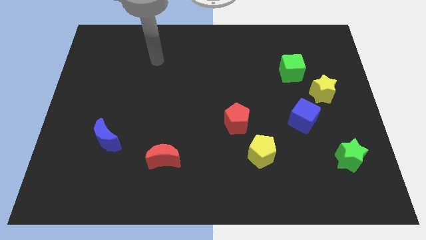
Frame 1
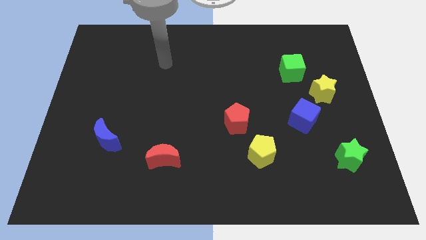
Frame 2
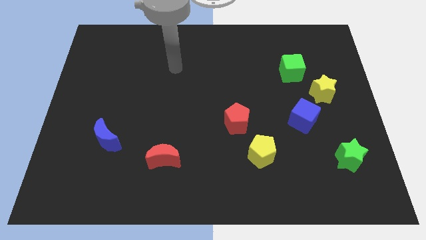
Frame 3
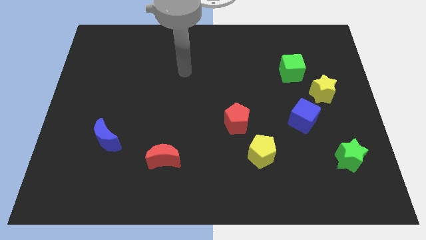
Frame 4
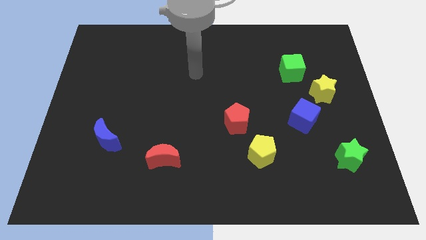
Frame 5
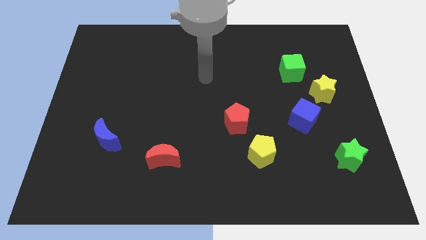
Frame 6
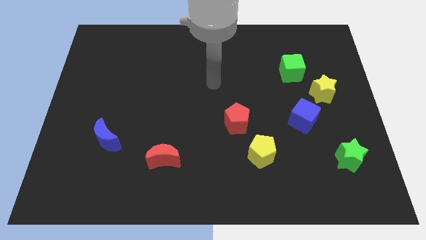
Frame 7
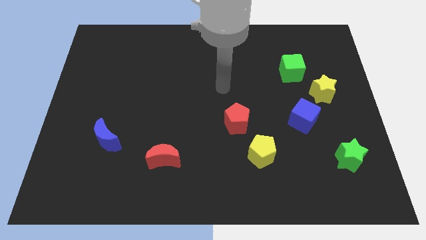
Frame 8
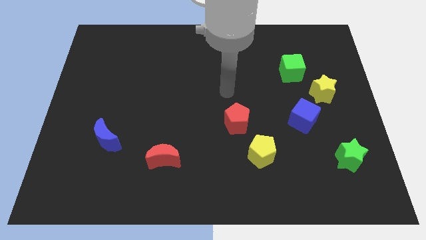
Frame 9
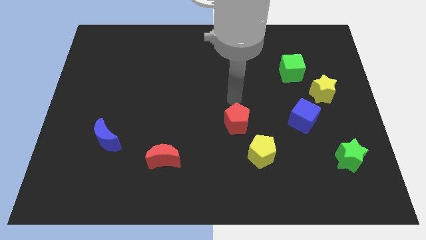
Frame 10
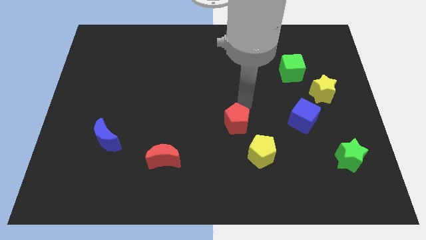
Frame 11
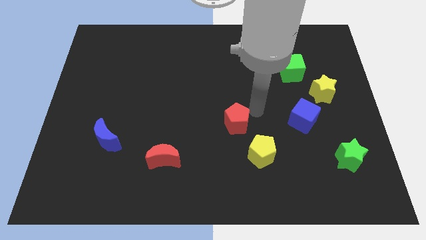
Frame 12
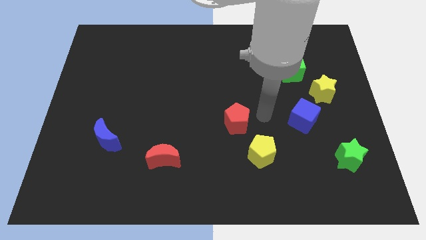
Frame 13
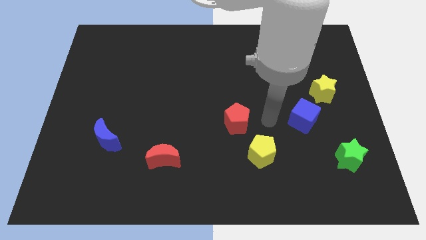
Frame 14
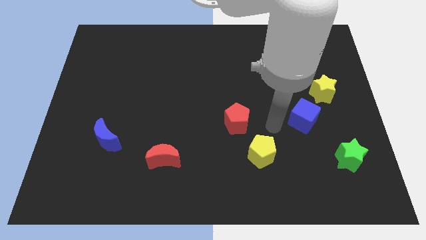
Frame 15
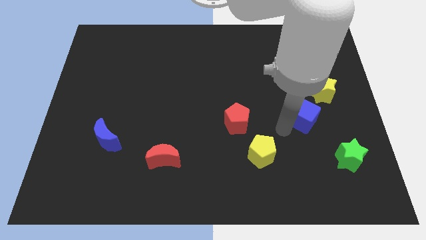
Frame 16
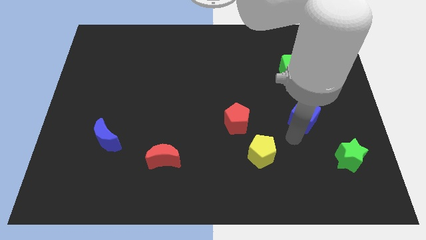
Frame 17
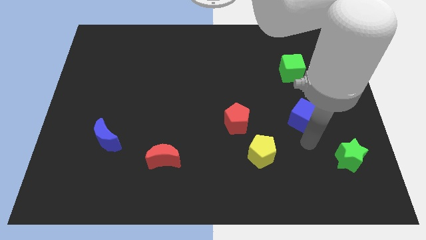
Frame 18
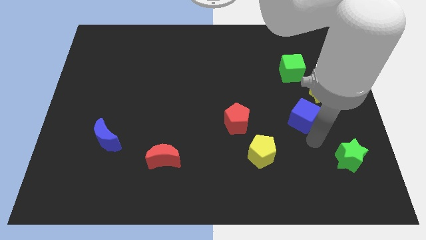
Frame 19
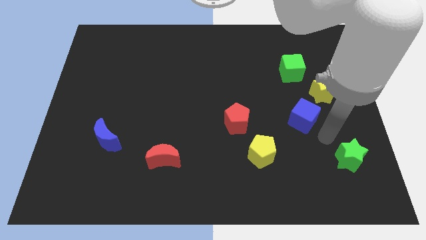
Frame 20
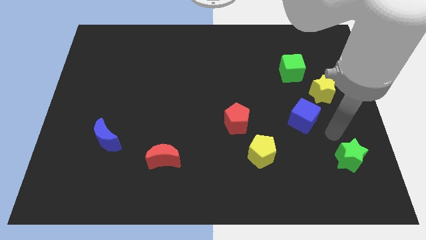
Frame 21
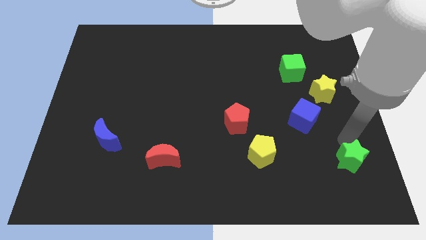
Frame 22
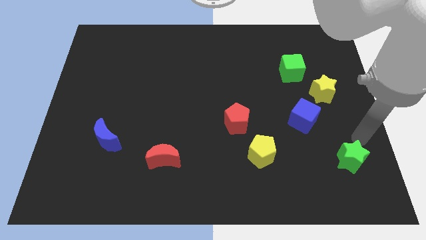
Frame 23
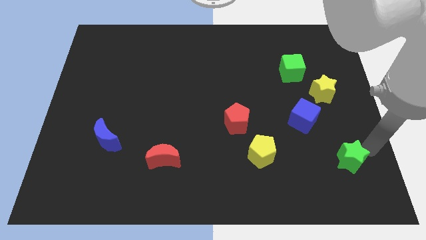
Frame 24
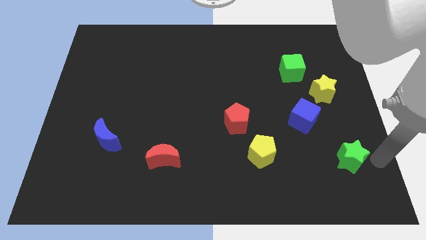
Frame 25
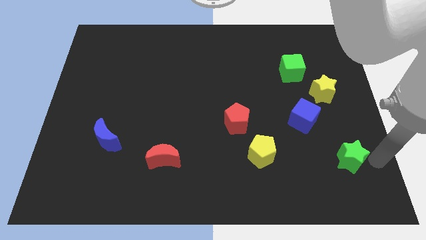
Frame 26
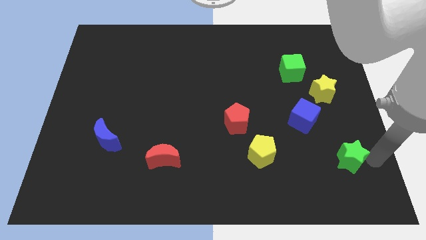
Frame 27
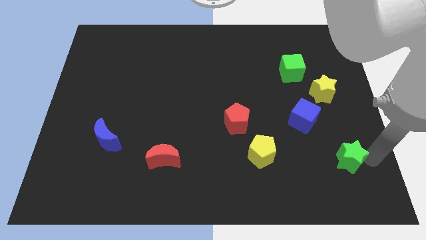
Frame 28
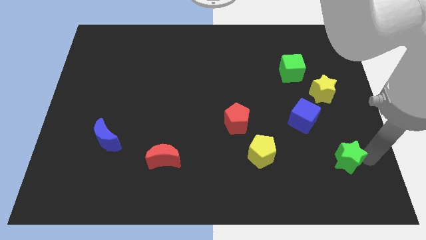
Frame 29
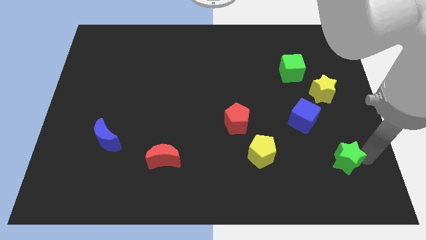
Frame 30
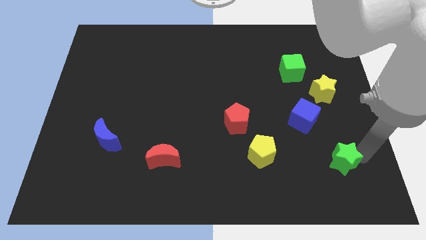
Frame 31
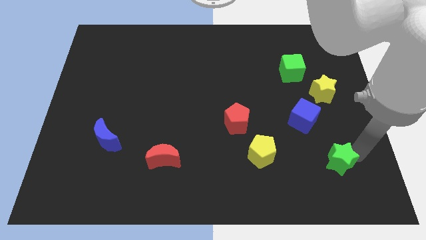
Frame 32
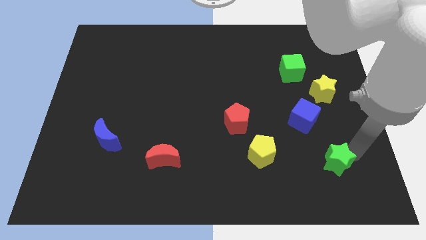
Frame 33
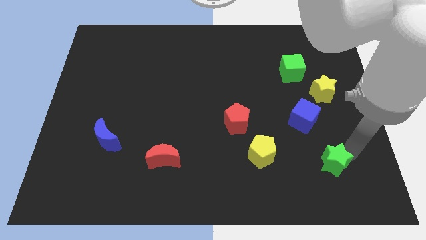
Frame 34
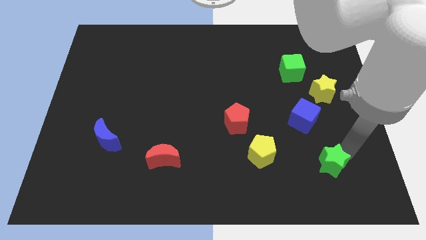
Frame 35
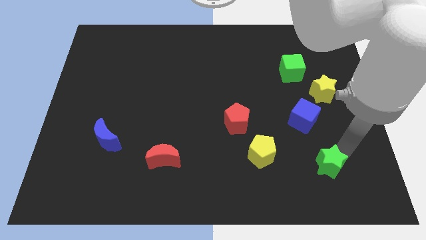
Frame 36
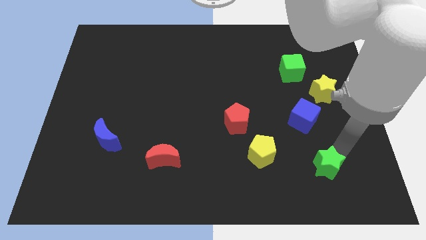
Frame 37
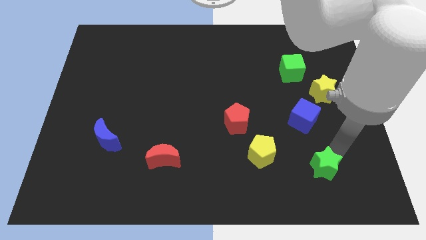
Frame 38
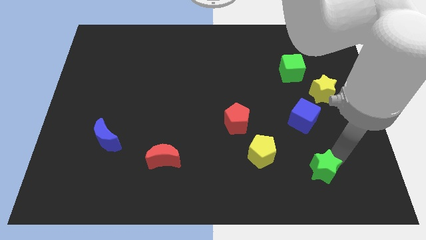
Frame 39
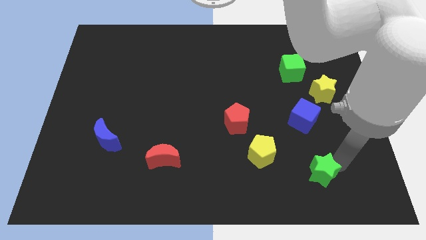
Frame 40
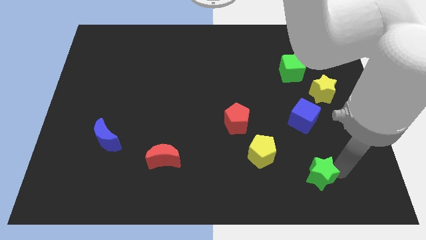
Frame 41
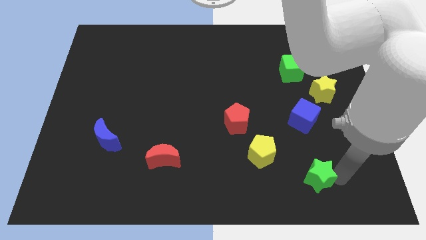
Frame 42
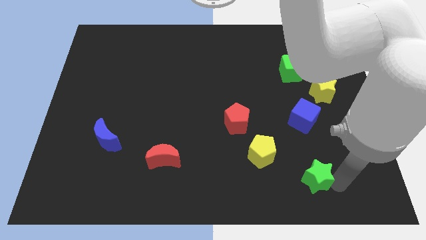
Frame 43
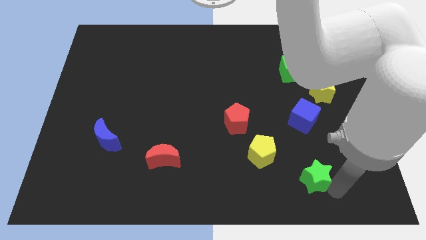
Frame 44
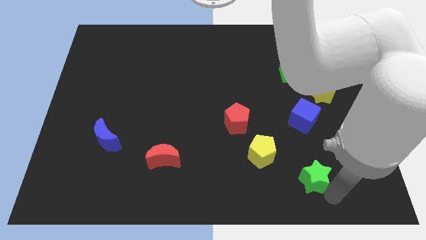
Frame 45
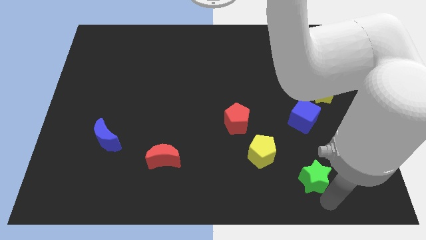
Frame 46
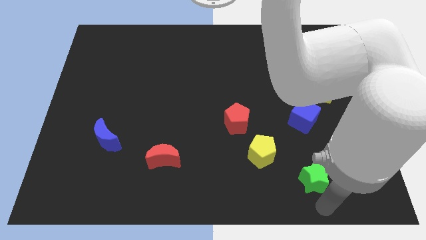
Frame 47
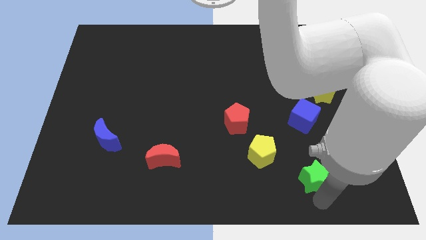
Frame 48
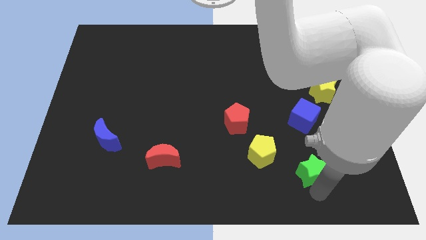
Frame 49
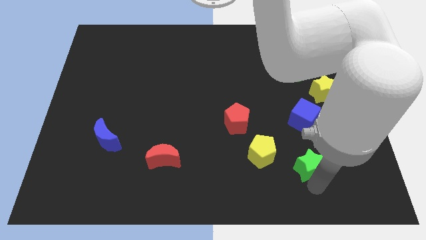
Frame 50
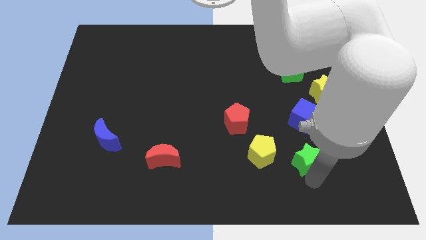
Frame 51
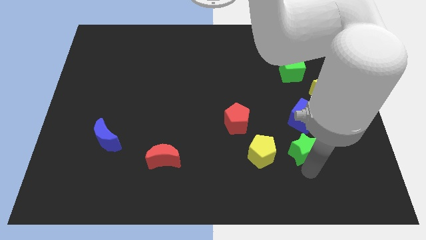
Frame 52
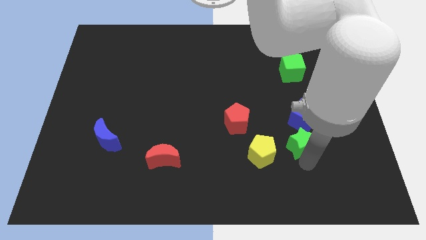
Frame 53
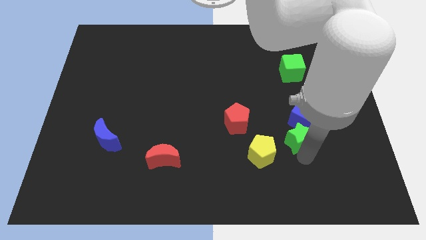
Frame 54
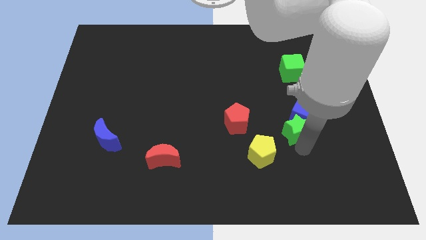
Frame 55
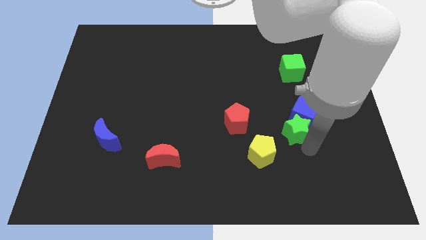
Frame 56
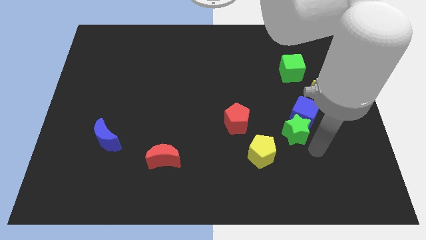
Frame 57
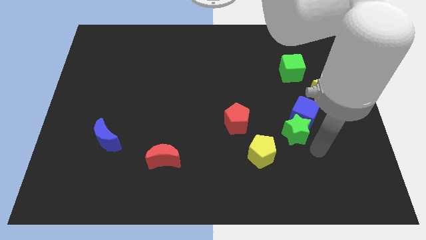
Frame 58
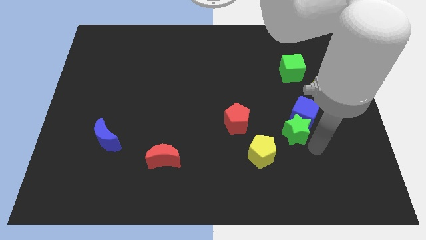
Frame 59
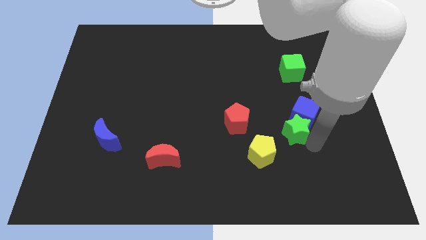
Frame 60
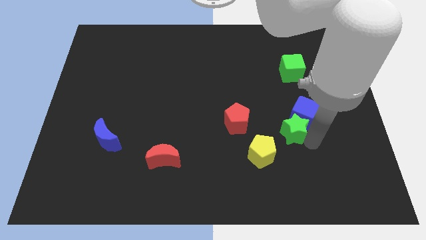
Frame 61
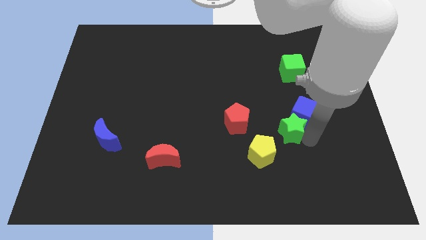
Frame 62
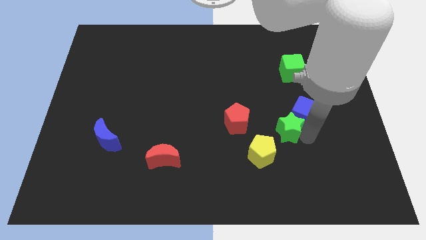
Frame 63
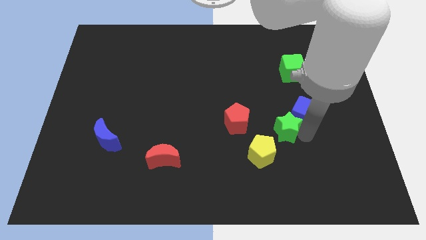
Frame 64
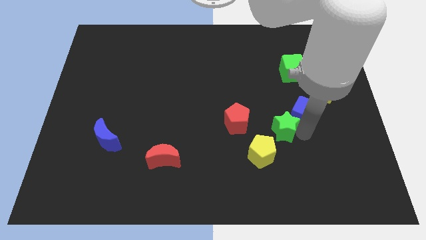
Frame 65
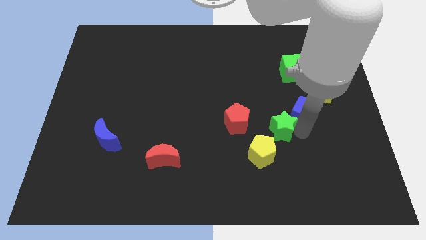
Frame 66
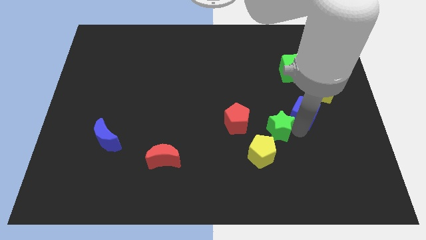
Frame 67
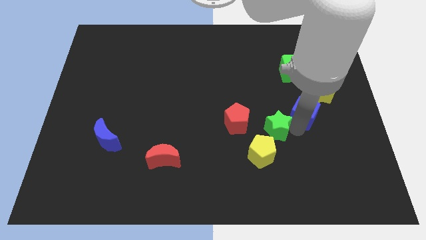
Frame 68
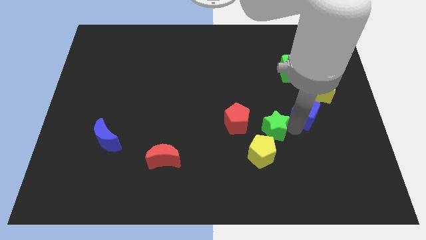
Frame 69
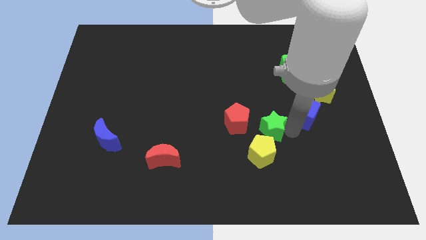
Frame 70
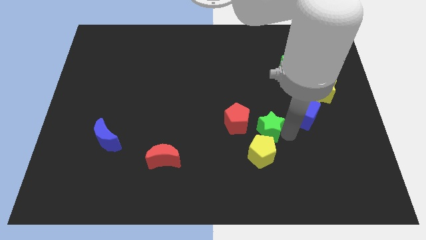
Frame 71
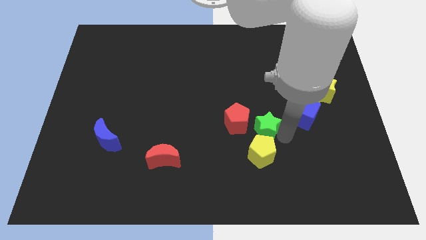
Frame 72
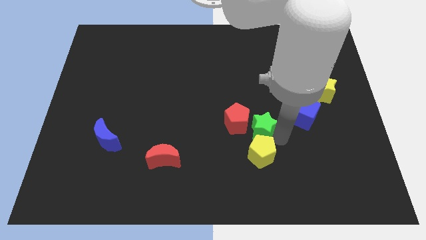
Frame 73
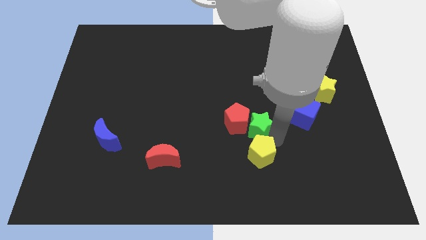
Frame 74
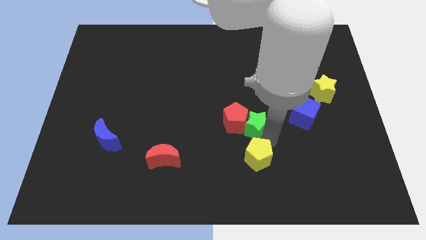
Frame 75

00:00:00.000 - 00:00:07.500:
slide the green star to the middle of the board

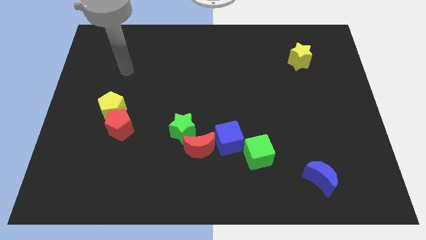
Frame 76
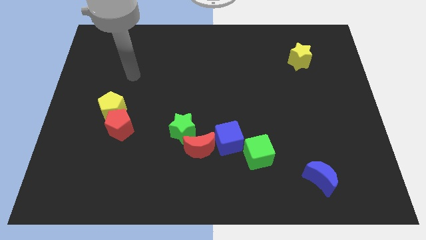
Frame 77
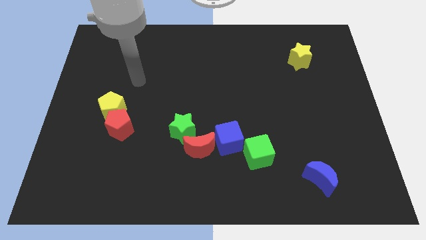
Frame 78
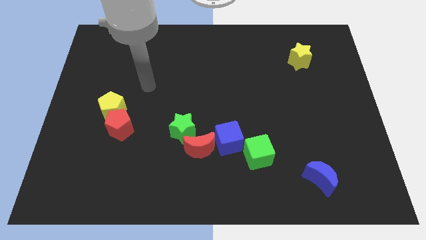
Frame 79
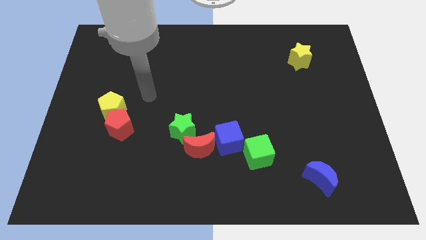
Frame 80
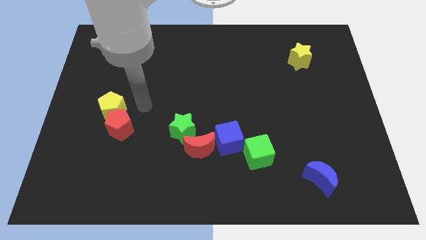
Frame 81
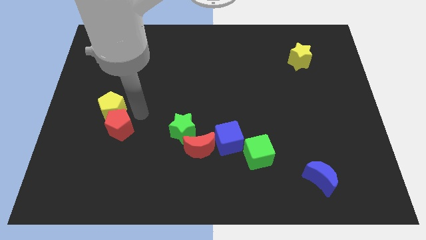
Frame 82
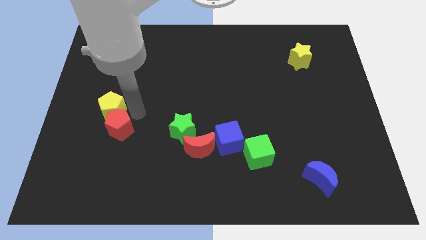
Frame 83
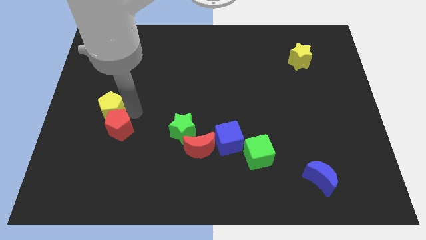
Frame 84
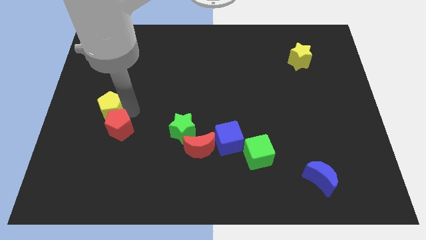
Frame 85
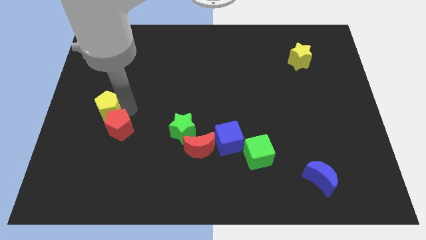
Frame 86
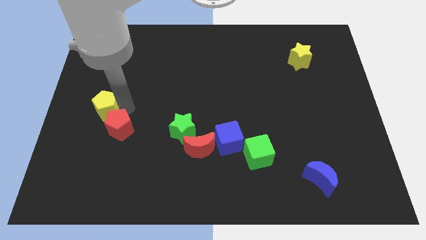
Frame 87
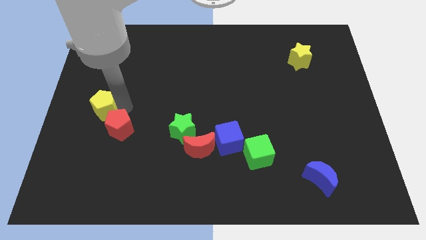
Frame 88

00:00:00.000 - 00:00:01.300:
put the yellow pentagon to the center left
